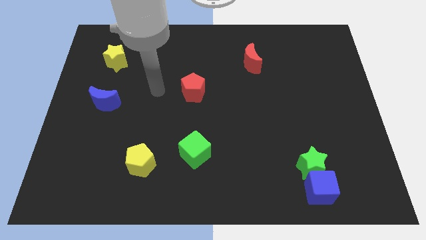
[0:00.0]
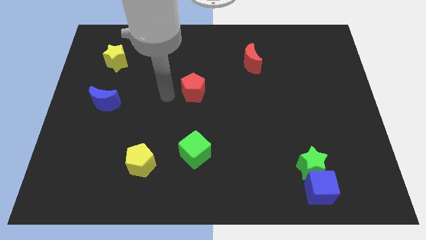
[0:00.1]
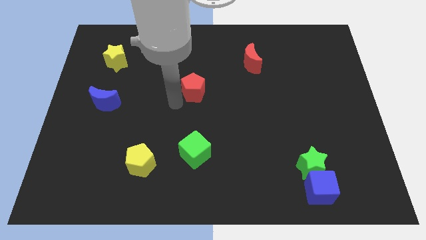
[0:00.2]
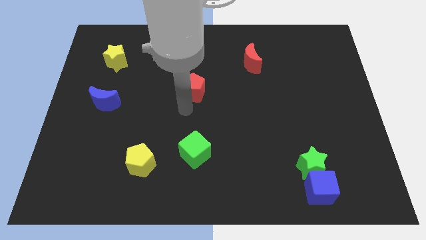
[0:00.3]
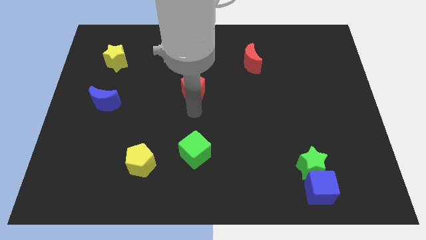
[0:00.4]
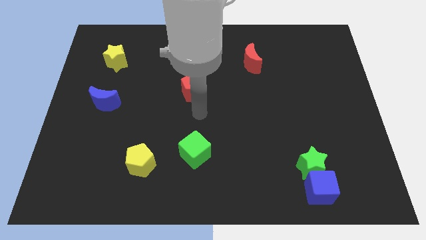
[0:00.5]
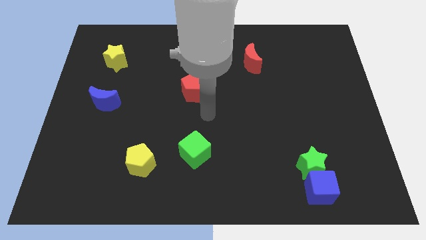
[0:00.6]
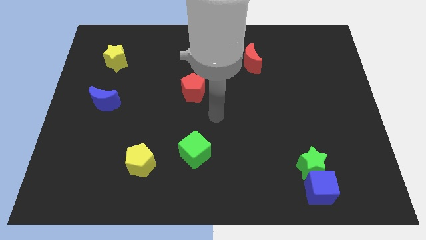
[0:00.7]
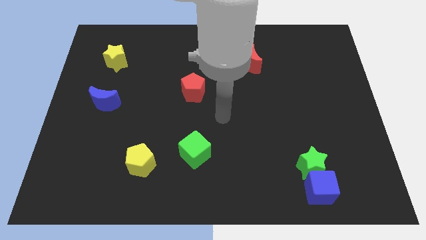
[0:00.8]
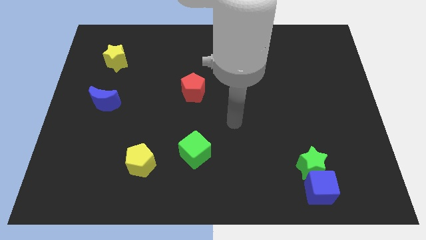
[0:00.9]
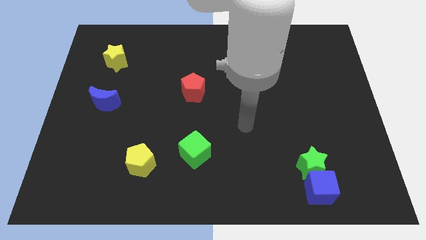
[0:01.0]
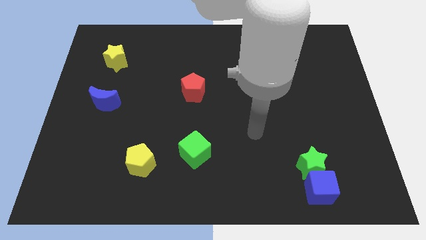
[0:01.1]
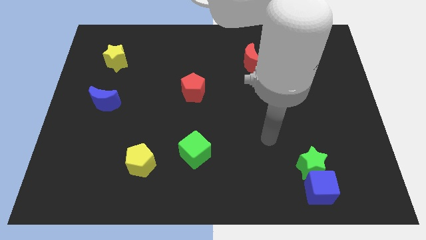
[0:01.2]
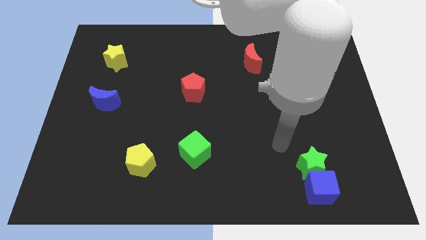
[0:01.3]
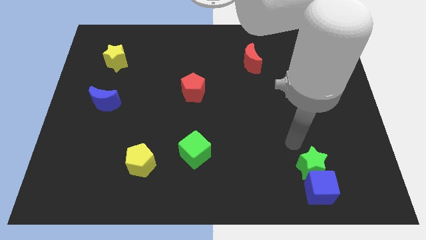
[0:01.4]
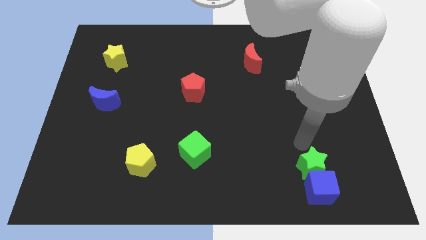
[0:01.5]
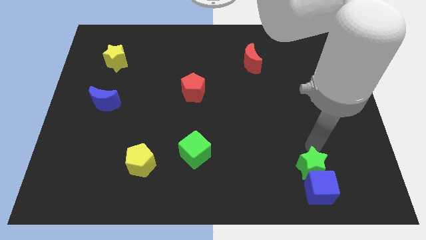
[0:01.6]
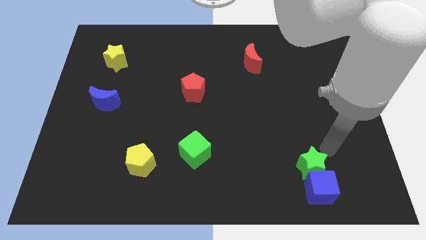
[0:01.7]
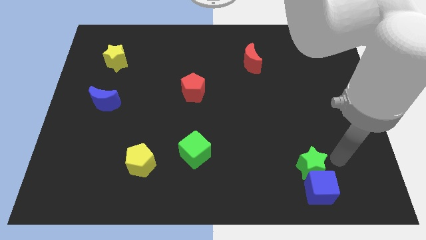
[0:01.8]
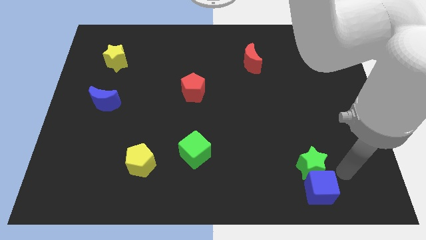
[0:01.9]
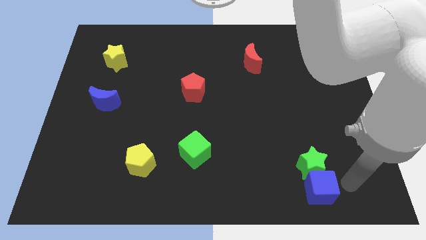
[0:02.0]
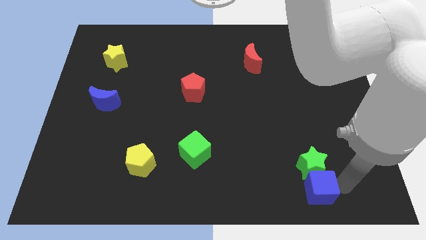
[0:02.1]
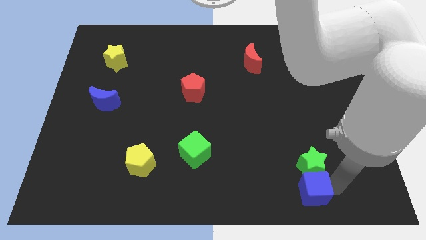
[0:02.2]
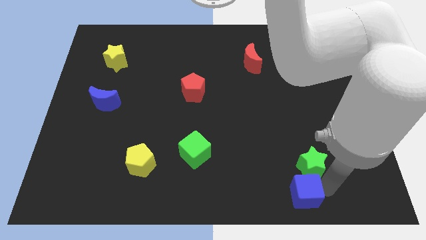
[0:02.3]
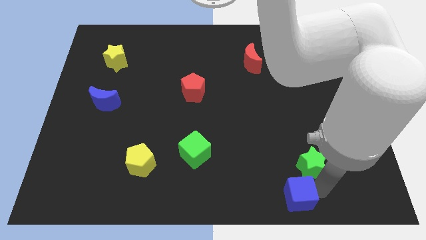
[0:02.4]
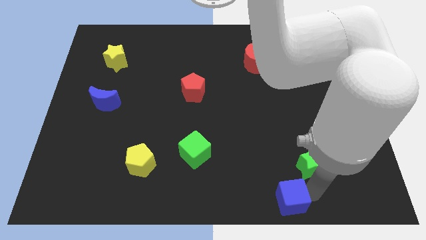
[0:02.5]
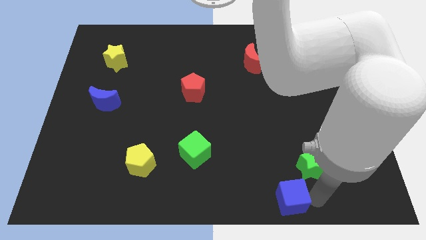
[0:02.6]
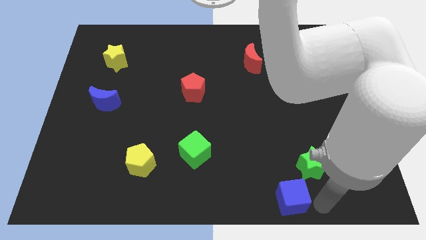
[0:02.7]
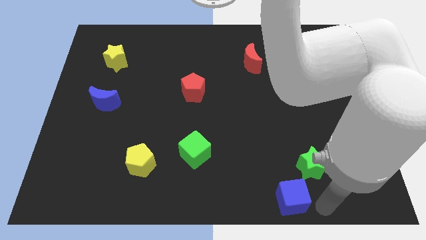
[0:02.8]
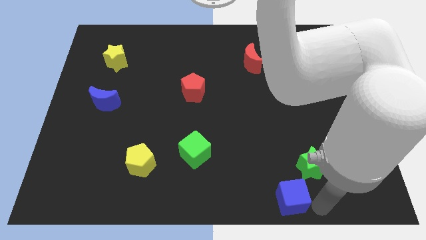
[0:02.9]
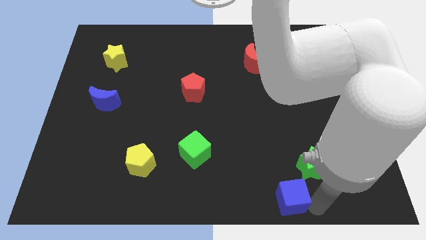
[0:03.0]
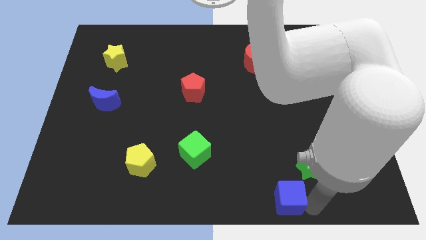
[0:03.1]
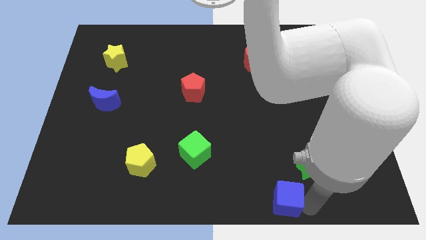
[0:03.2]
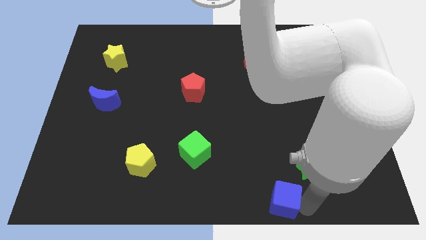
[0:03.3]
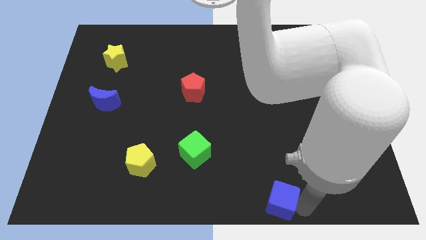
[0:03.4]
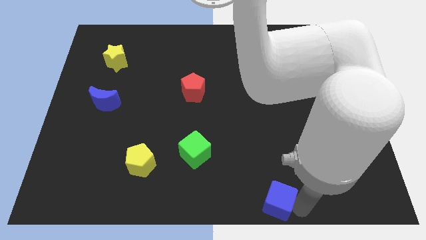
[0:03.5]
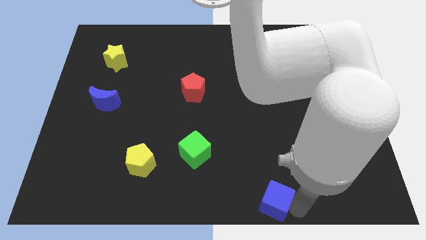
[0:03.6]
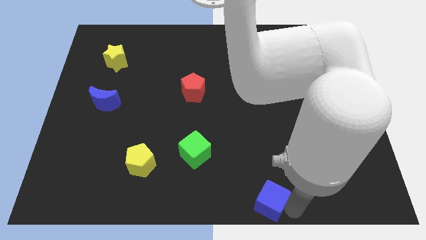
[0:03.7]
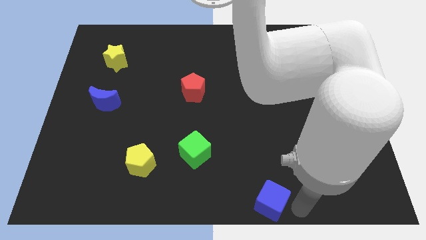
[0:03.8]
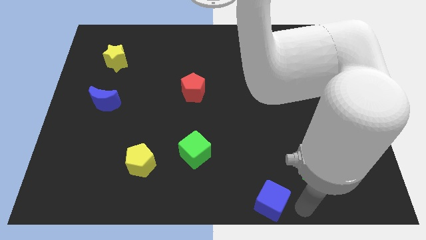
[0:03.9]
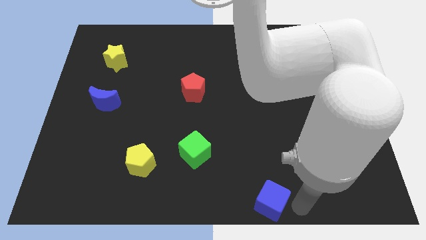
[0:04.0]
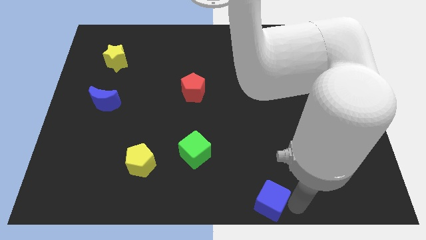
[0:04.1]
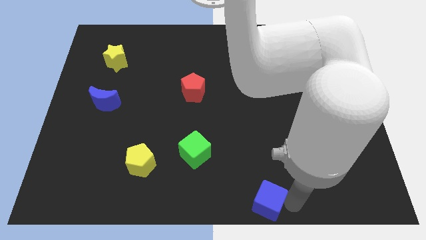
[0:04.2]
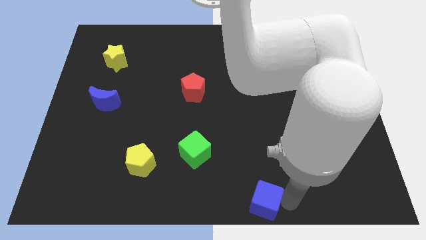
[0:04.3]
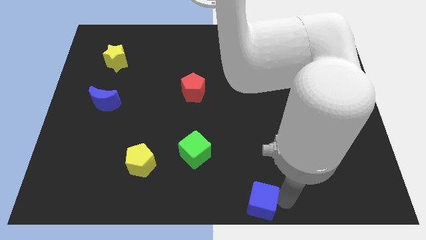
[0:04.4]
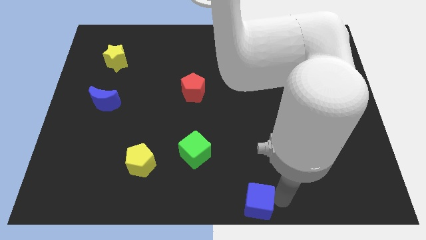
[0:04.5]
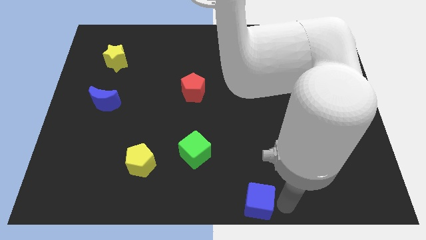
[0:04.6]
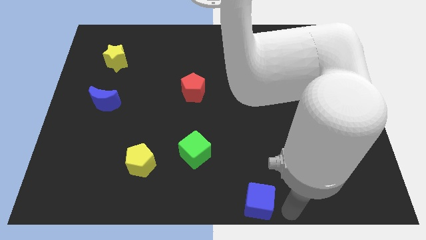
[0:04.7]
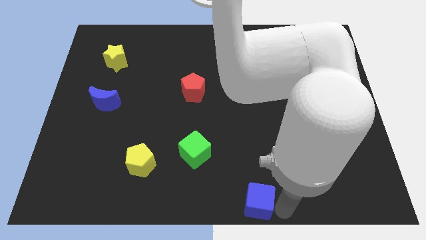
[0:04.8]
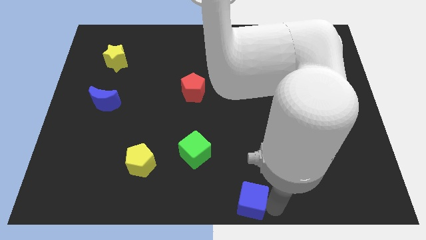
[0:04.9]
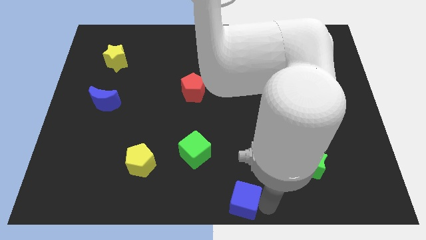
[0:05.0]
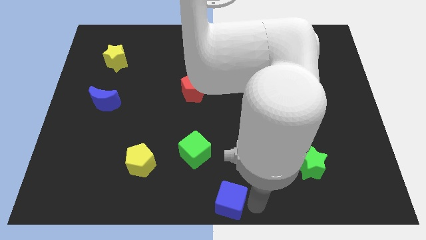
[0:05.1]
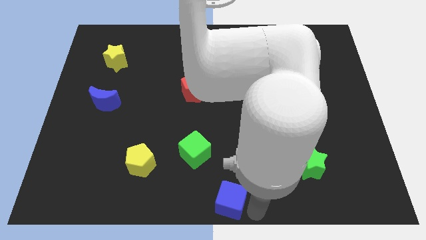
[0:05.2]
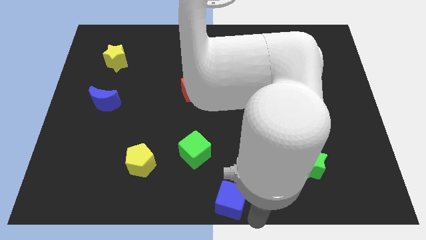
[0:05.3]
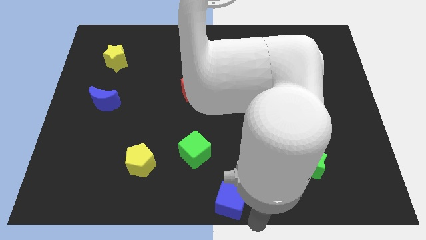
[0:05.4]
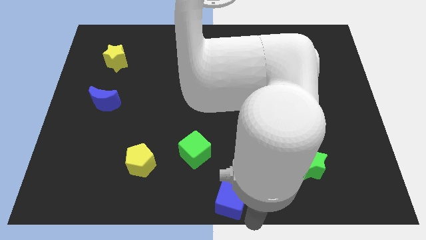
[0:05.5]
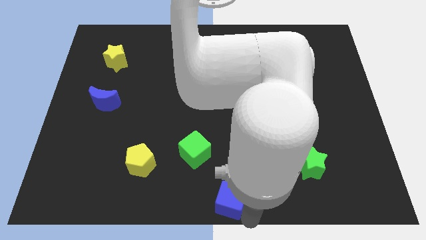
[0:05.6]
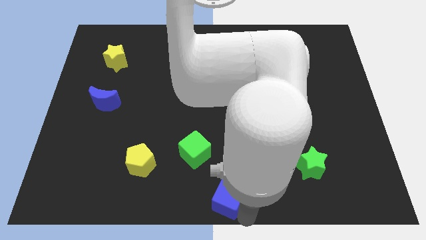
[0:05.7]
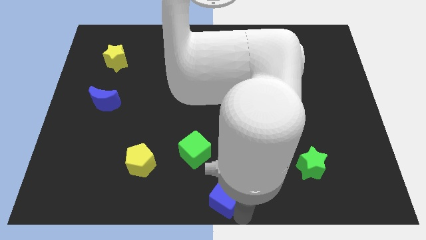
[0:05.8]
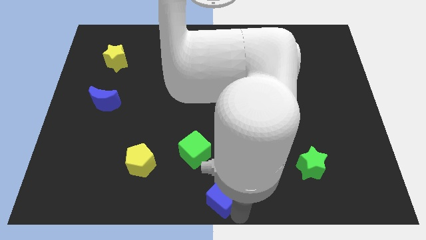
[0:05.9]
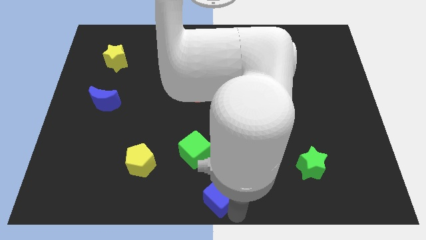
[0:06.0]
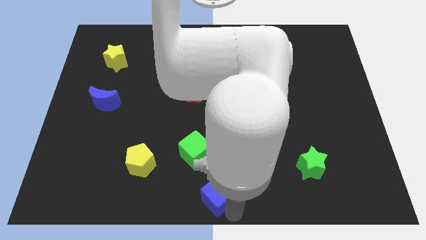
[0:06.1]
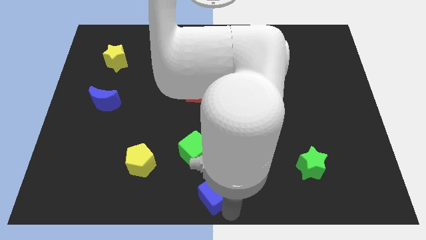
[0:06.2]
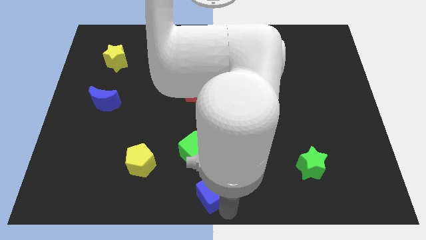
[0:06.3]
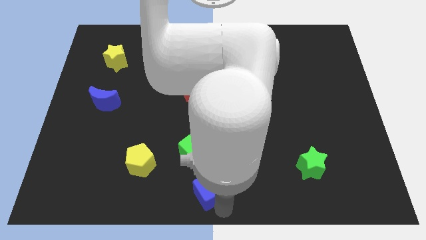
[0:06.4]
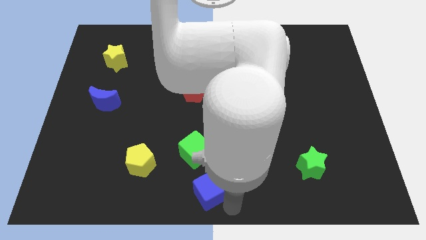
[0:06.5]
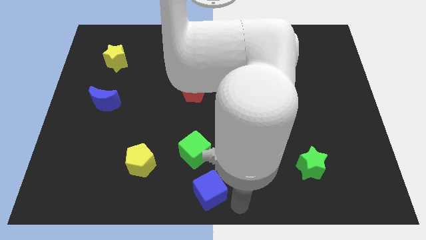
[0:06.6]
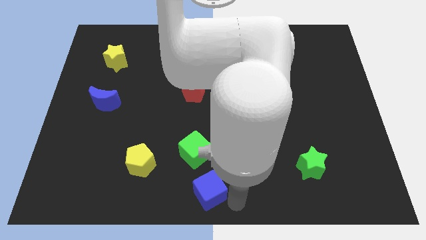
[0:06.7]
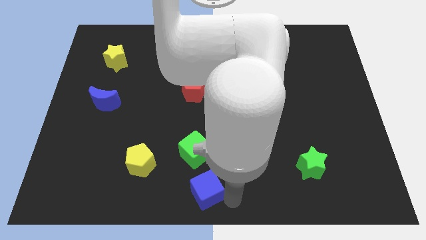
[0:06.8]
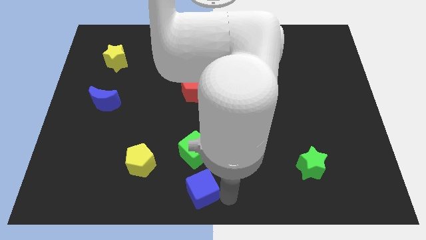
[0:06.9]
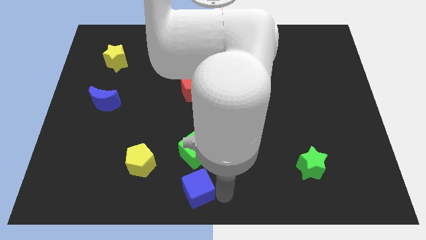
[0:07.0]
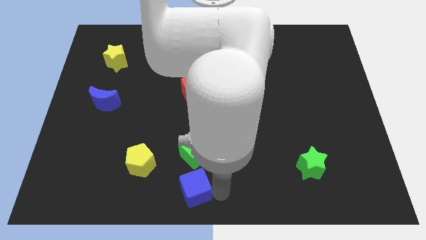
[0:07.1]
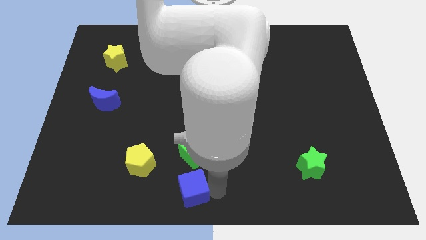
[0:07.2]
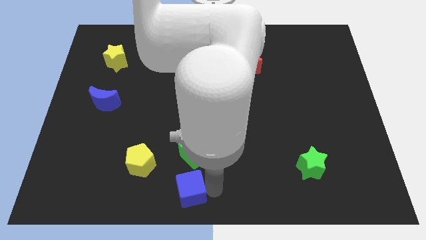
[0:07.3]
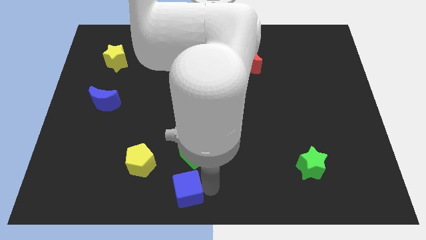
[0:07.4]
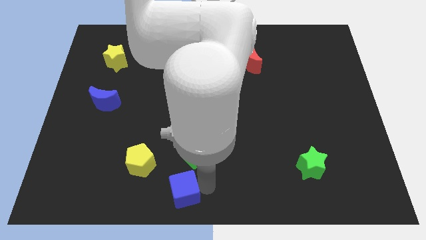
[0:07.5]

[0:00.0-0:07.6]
slide the blue cube to the bottom left side of the green cube
